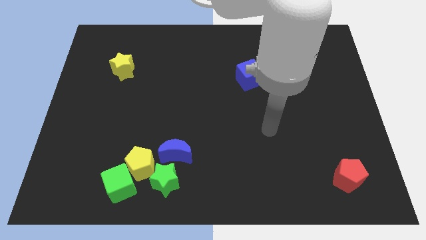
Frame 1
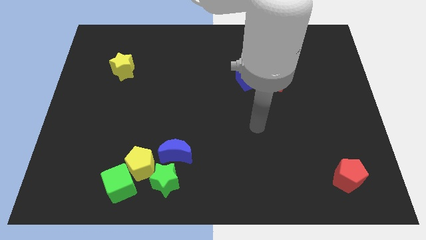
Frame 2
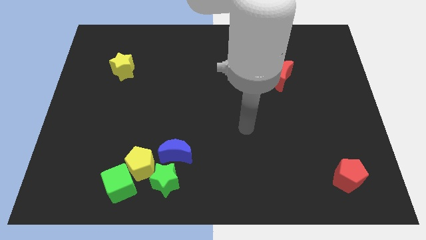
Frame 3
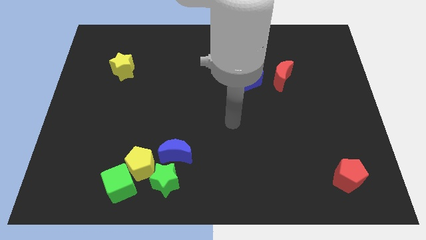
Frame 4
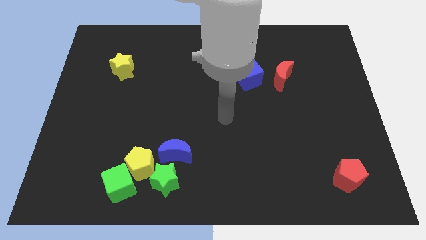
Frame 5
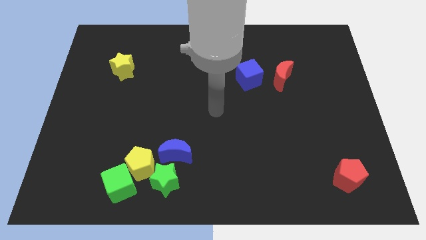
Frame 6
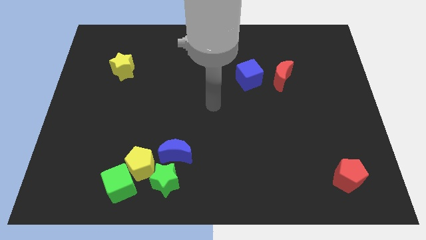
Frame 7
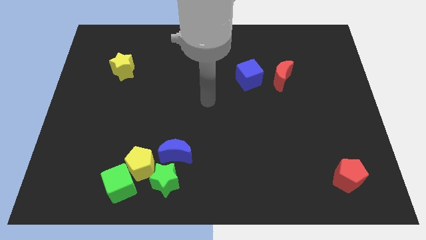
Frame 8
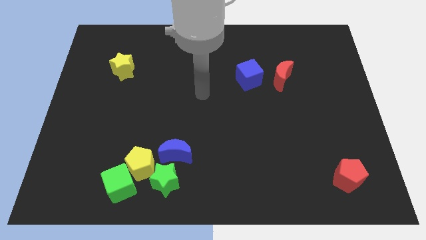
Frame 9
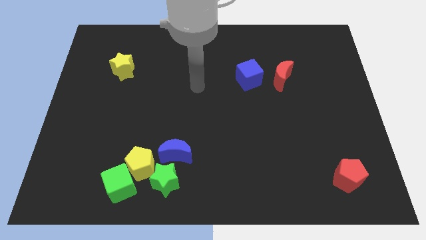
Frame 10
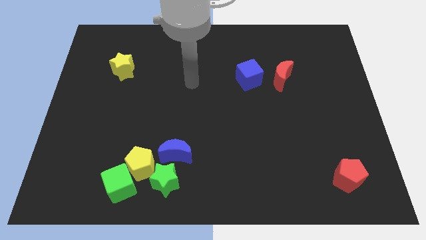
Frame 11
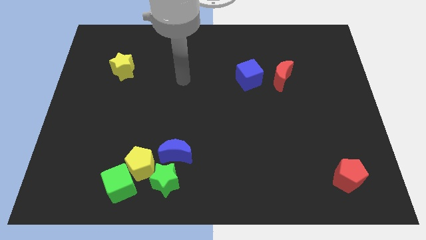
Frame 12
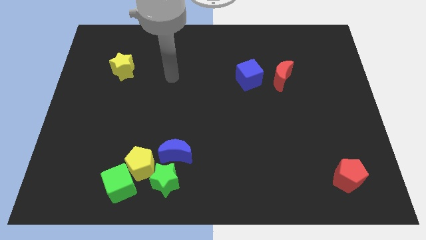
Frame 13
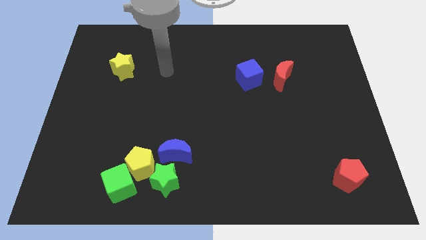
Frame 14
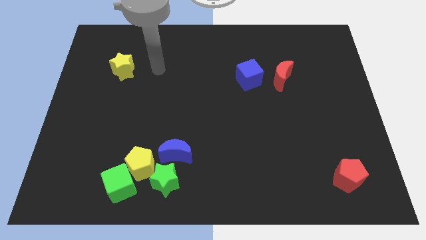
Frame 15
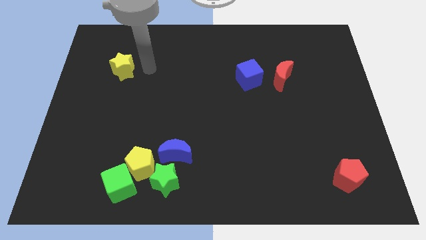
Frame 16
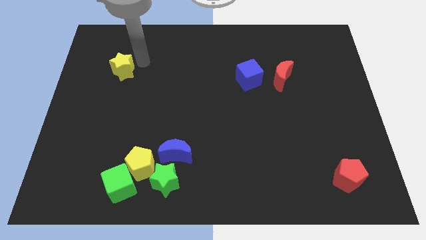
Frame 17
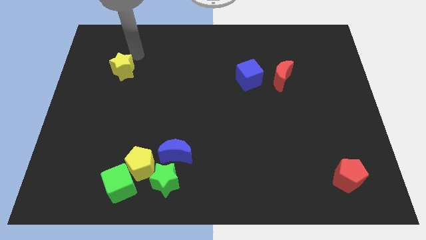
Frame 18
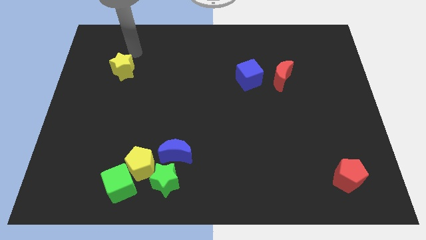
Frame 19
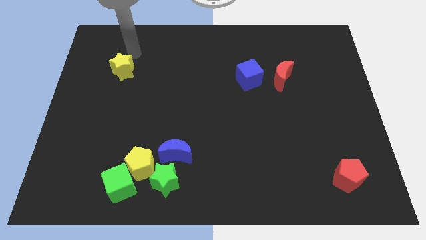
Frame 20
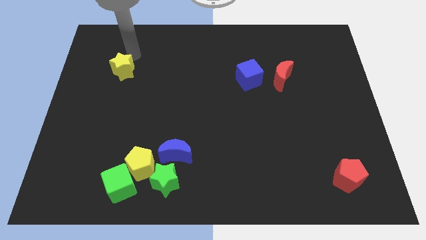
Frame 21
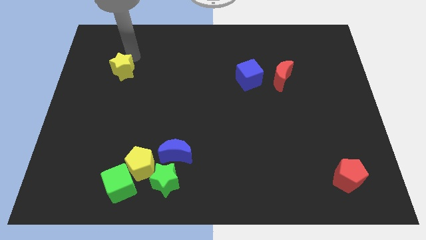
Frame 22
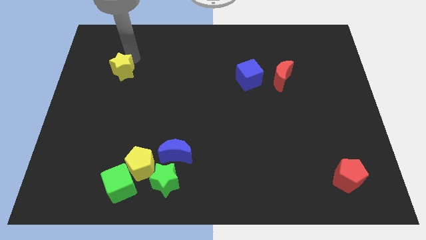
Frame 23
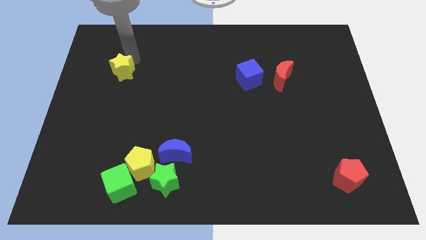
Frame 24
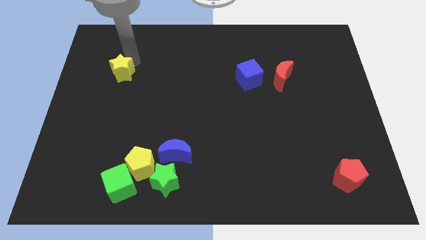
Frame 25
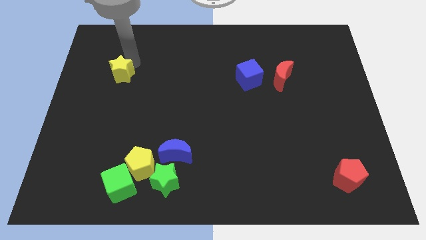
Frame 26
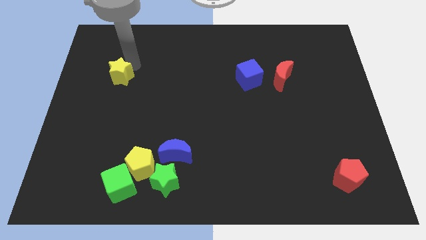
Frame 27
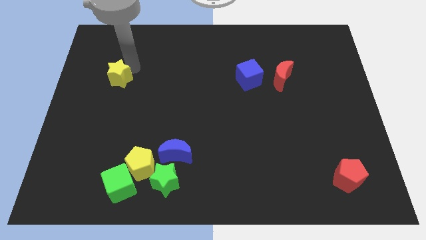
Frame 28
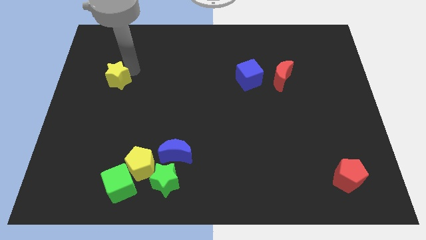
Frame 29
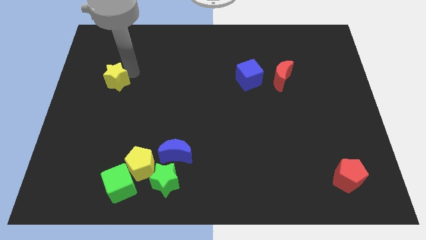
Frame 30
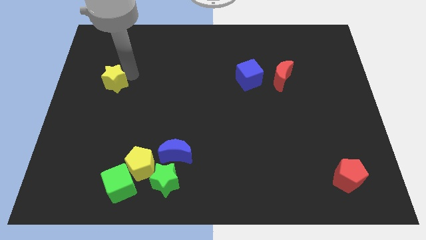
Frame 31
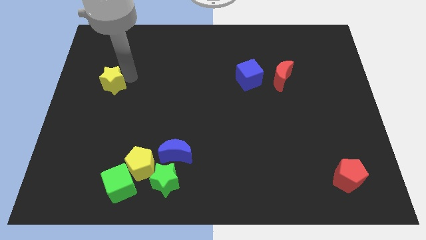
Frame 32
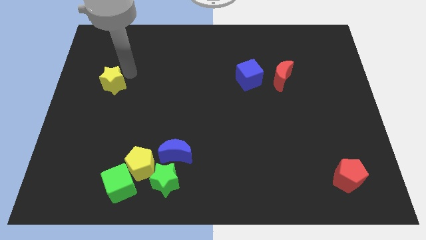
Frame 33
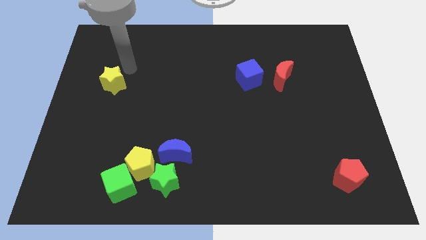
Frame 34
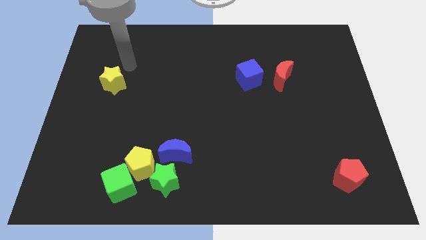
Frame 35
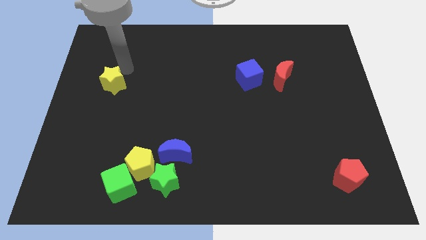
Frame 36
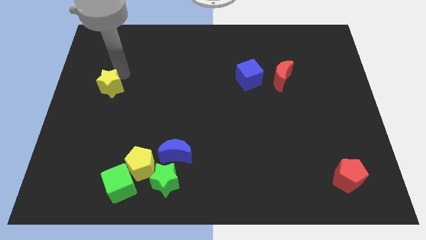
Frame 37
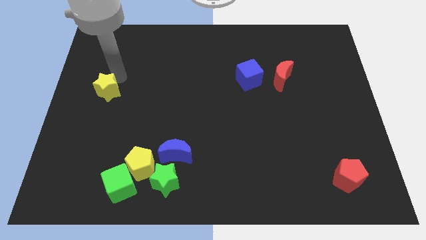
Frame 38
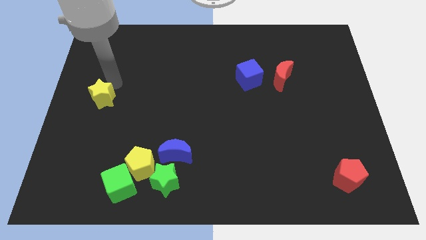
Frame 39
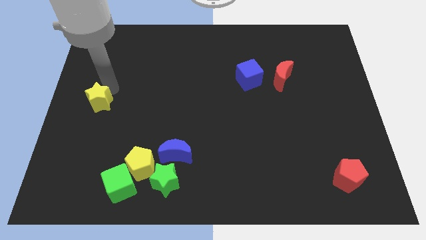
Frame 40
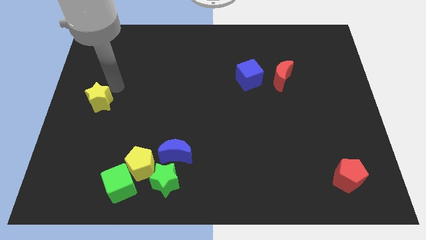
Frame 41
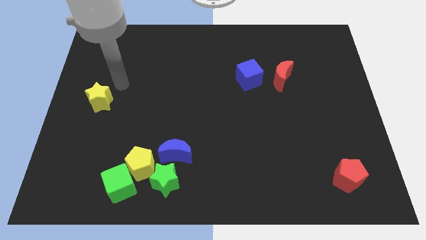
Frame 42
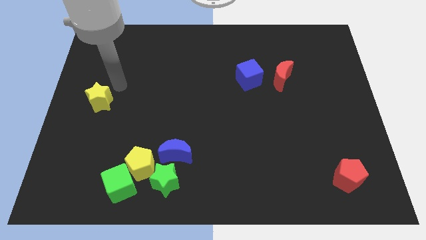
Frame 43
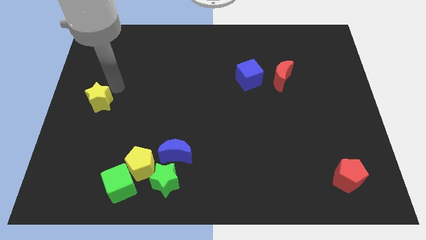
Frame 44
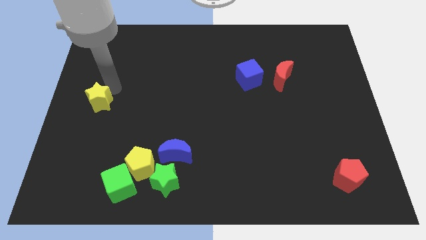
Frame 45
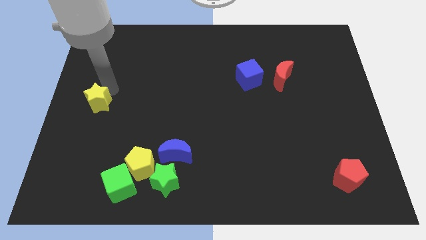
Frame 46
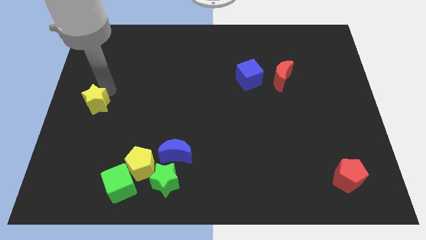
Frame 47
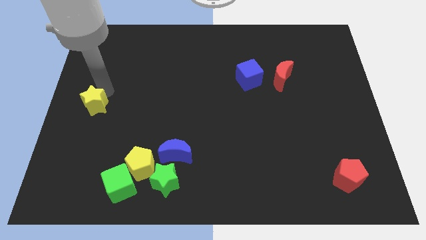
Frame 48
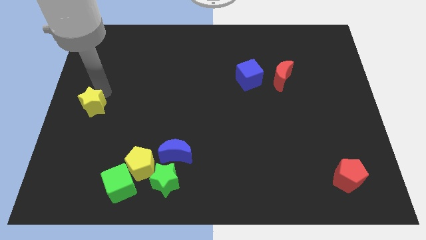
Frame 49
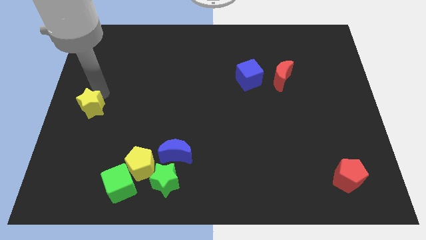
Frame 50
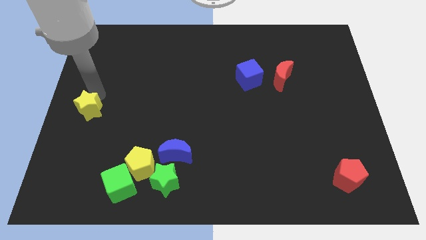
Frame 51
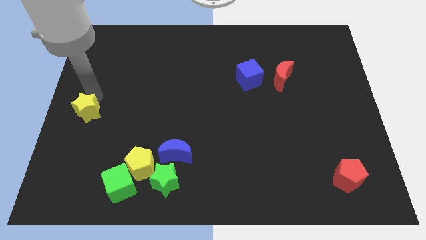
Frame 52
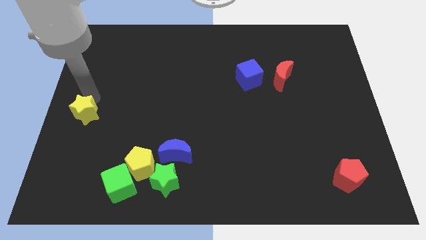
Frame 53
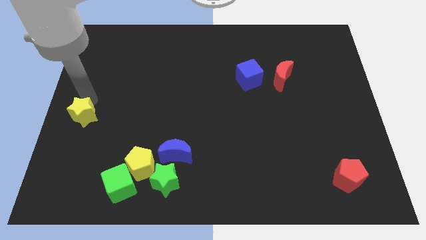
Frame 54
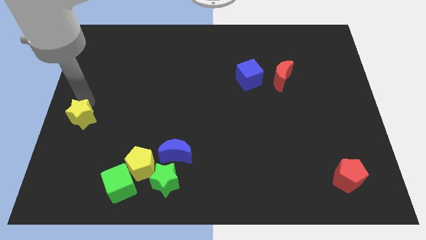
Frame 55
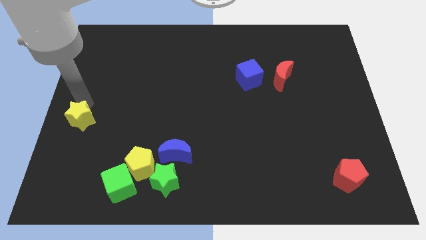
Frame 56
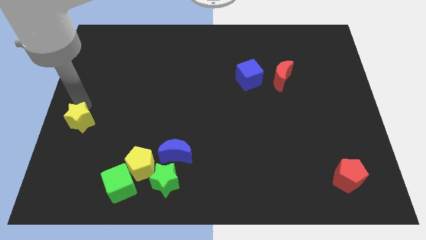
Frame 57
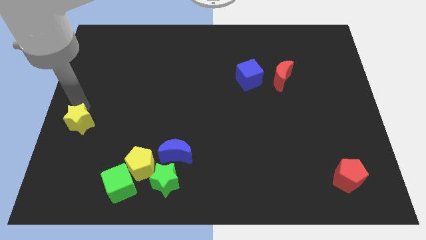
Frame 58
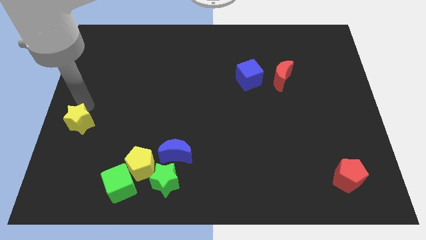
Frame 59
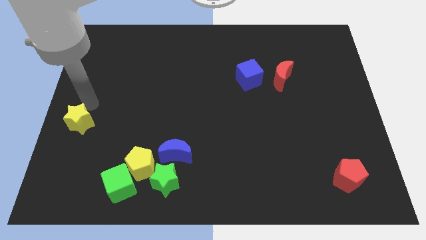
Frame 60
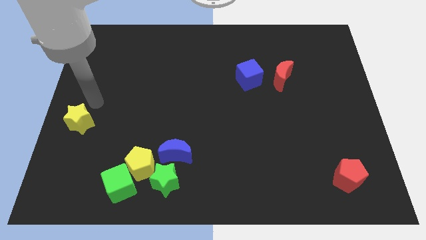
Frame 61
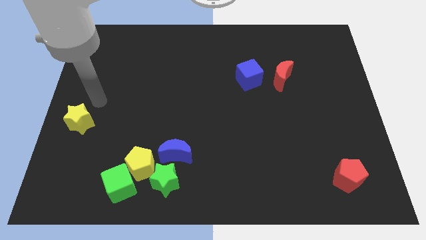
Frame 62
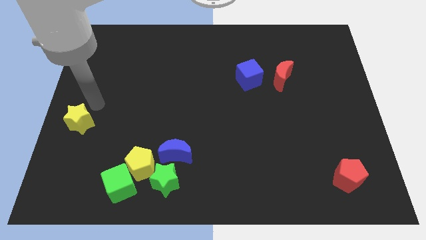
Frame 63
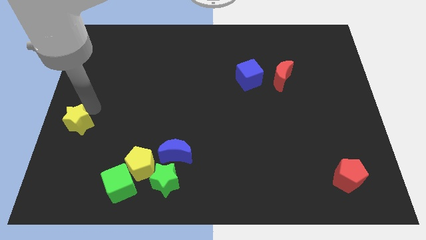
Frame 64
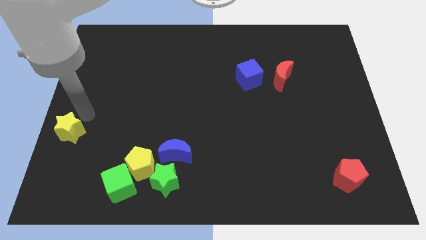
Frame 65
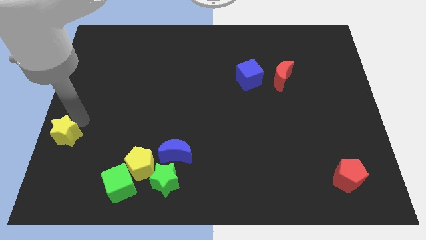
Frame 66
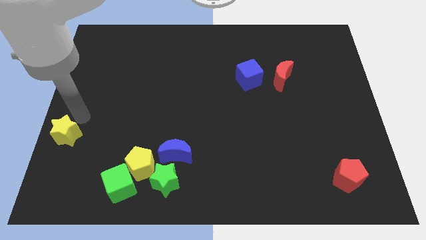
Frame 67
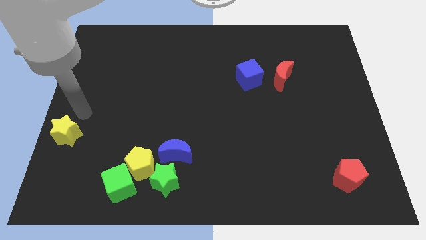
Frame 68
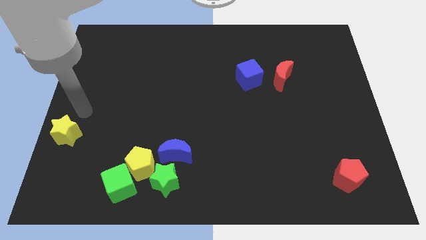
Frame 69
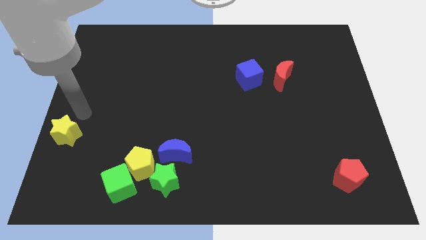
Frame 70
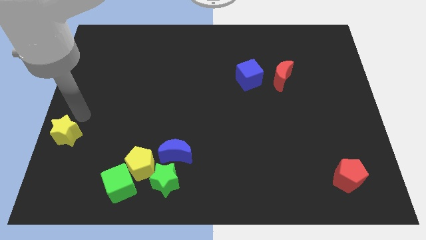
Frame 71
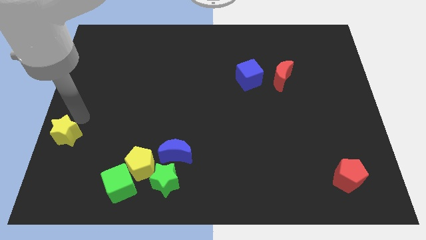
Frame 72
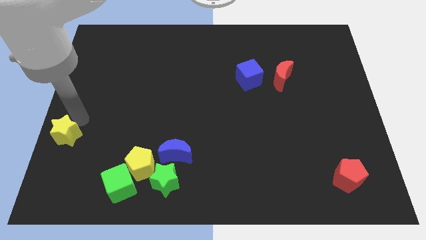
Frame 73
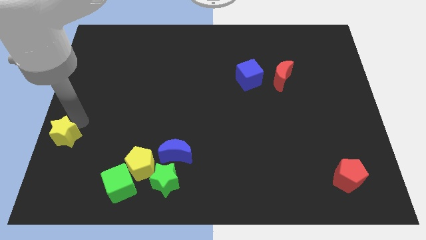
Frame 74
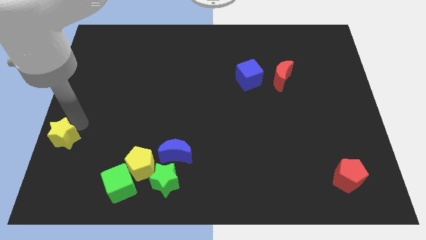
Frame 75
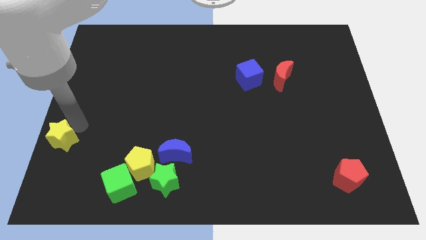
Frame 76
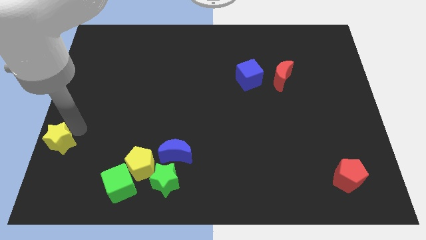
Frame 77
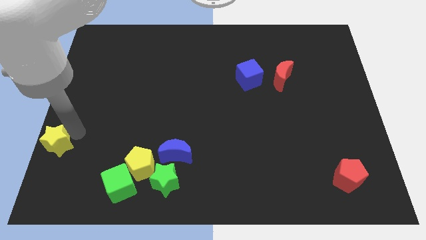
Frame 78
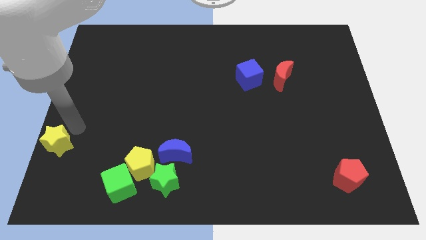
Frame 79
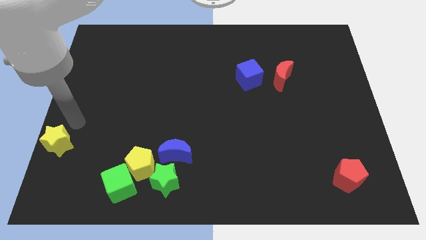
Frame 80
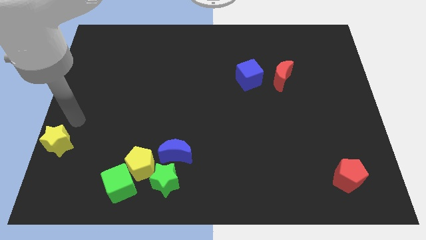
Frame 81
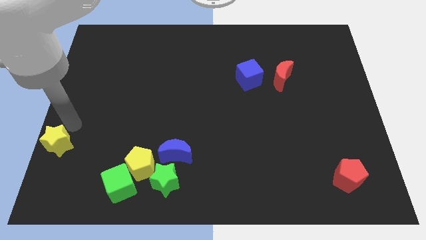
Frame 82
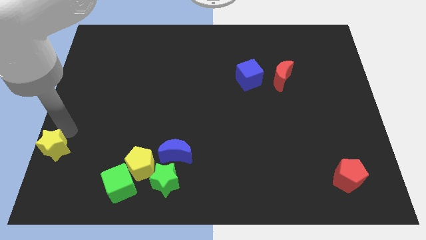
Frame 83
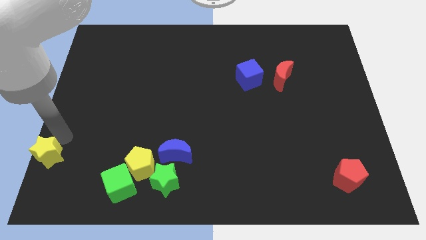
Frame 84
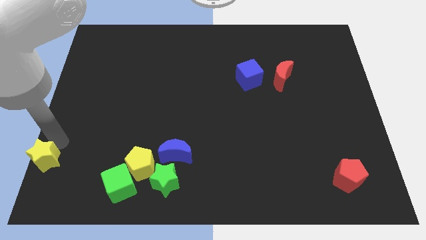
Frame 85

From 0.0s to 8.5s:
push the yellow star to the bottom left
